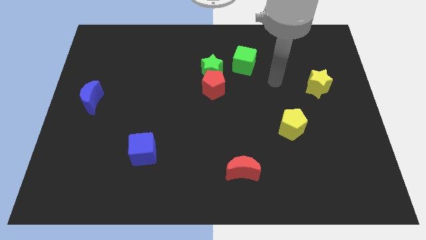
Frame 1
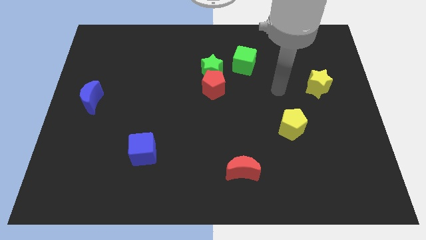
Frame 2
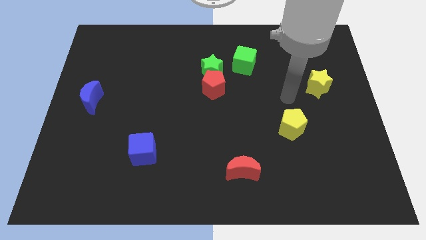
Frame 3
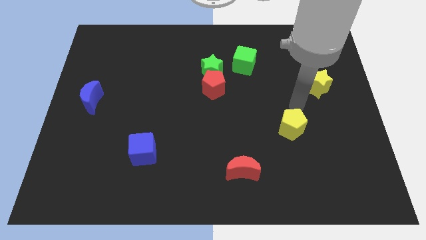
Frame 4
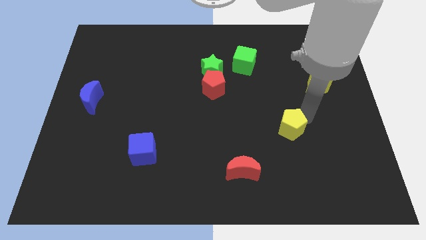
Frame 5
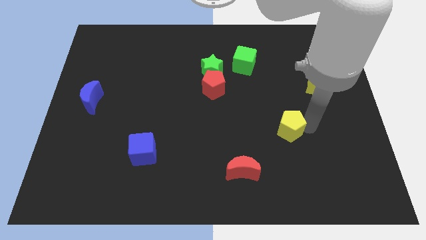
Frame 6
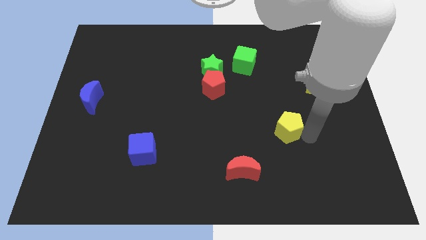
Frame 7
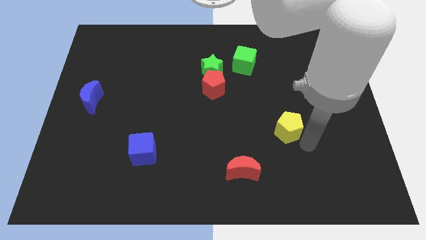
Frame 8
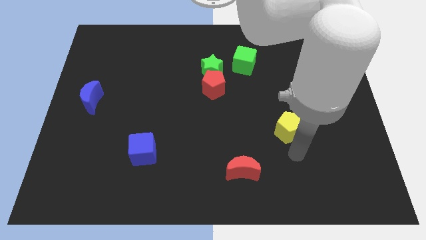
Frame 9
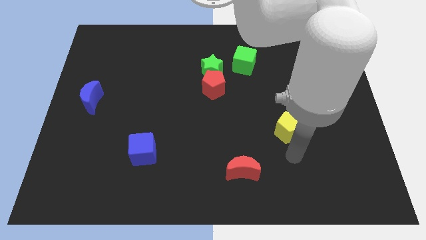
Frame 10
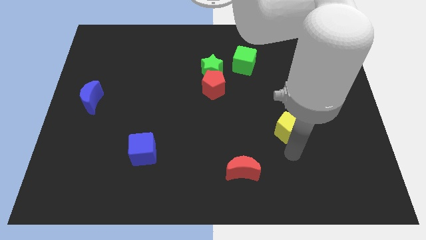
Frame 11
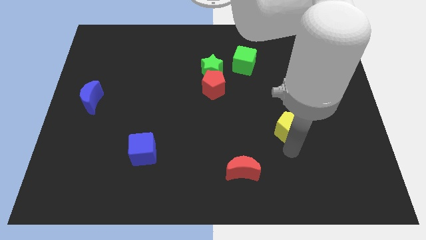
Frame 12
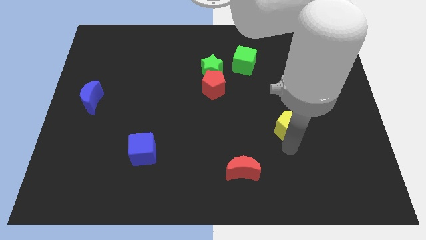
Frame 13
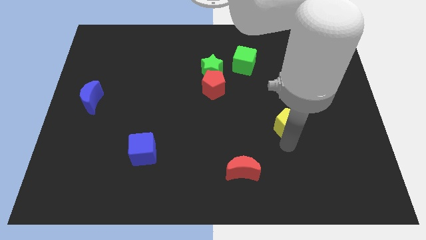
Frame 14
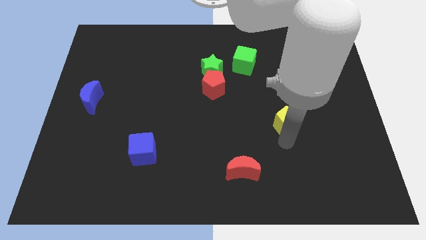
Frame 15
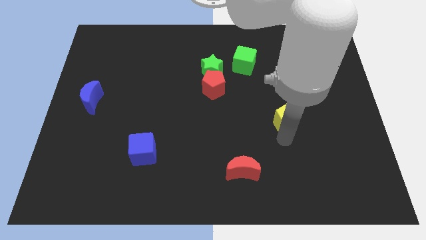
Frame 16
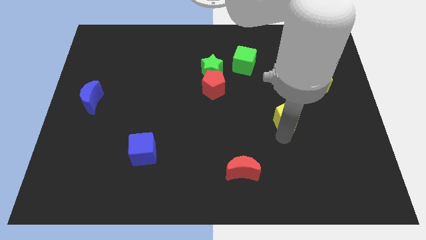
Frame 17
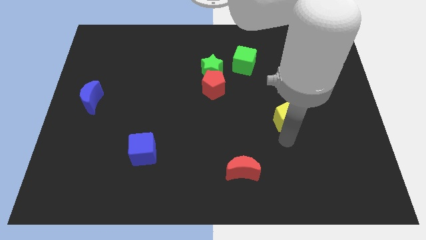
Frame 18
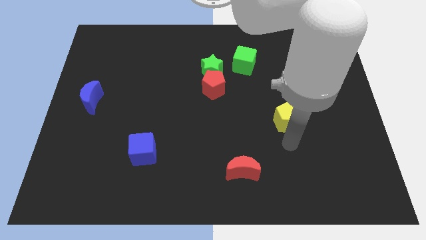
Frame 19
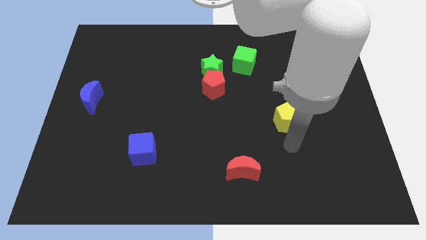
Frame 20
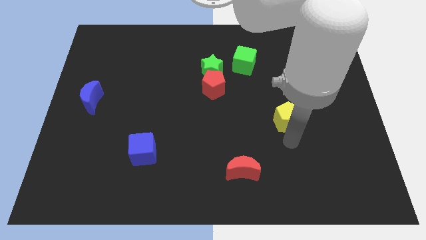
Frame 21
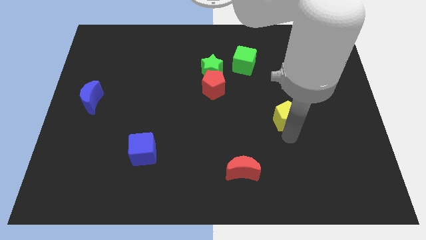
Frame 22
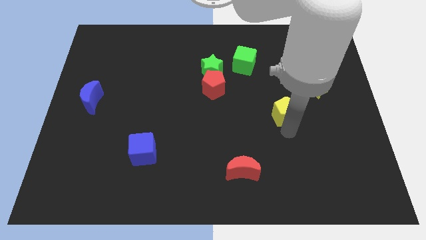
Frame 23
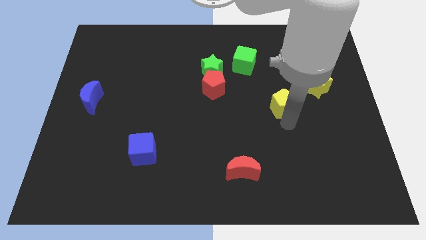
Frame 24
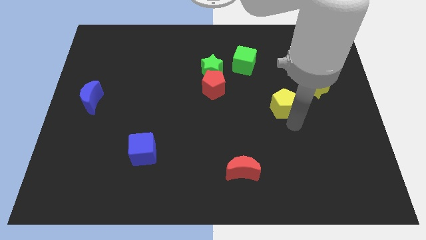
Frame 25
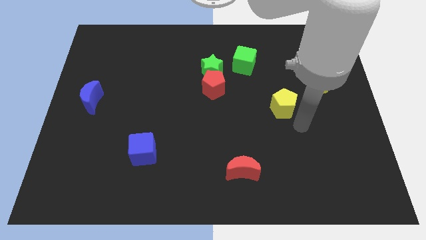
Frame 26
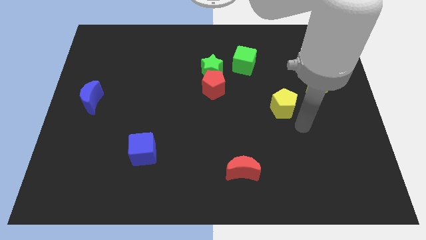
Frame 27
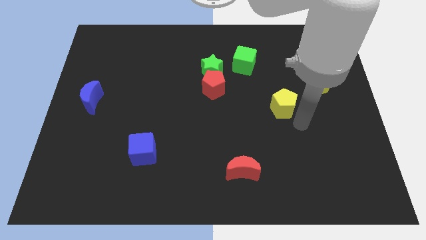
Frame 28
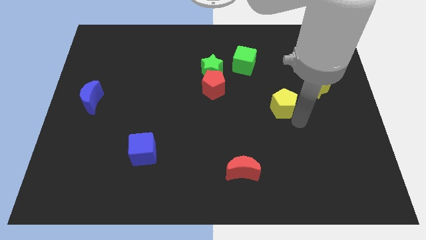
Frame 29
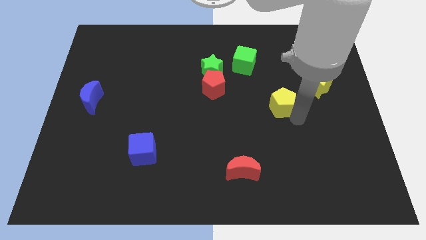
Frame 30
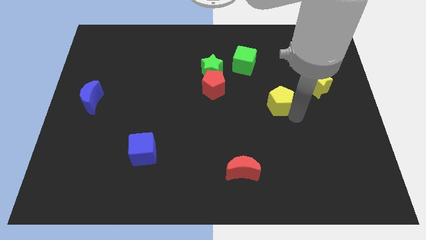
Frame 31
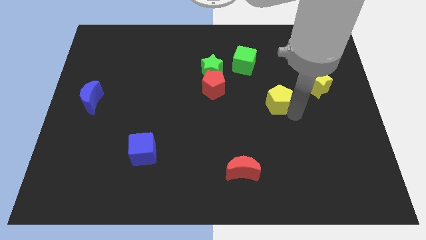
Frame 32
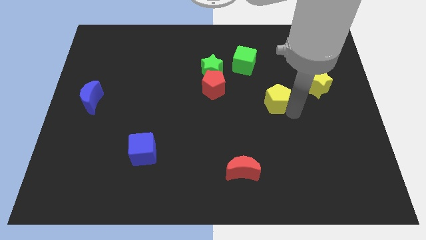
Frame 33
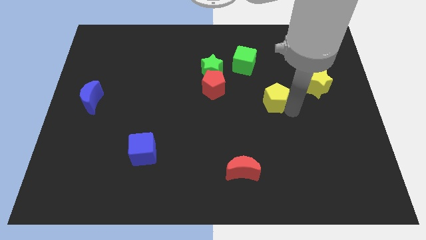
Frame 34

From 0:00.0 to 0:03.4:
move the yellow pentagon somewhat up and then left

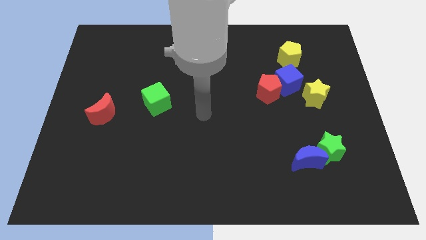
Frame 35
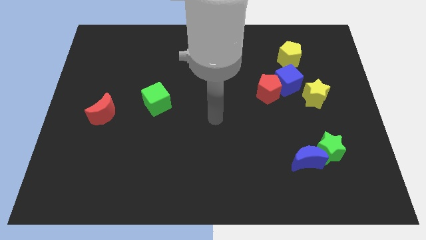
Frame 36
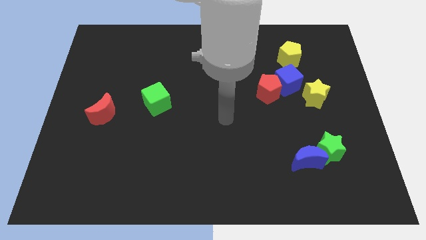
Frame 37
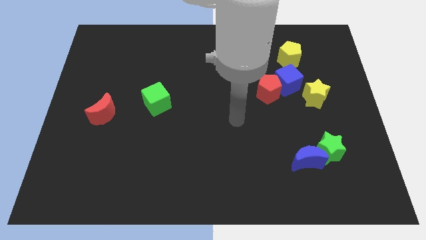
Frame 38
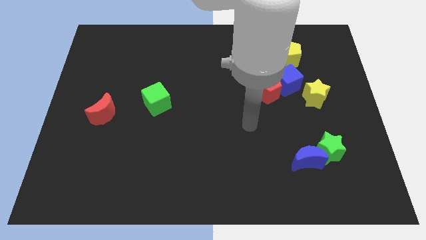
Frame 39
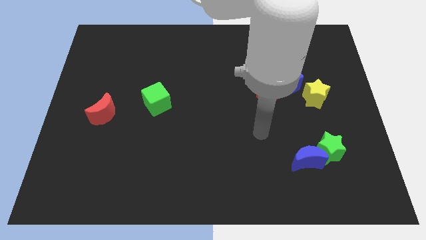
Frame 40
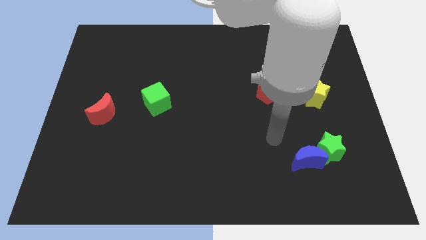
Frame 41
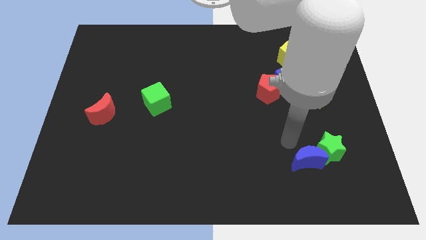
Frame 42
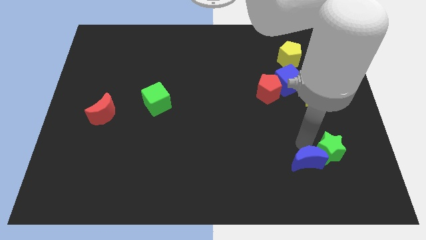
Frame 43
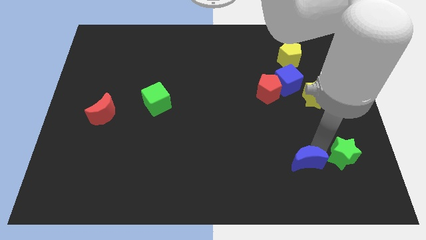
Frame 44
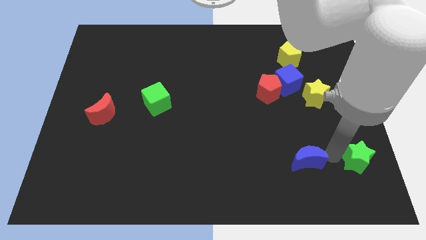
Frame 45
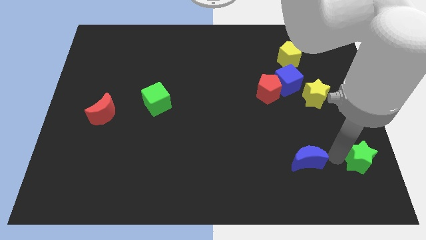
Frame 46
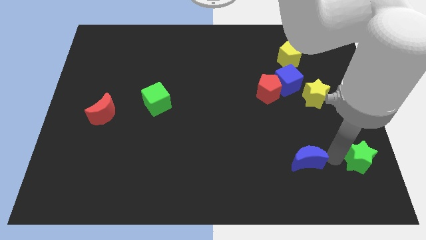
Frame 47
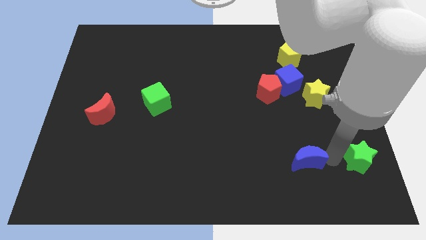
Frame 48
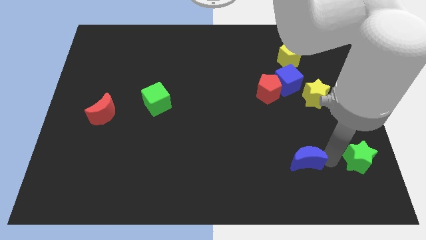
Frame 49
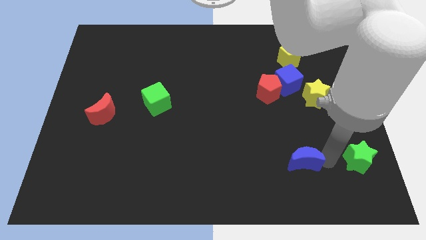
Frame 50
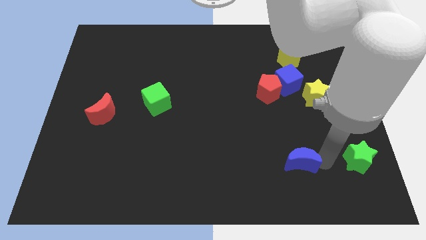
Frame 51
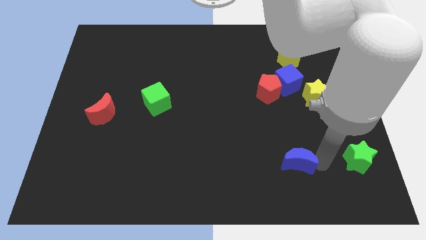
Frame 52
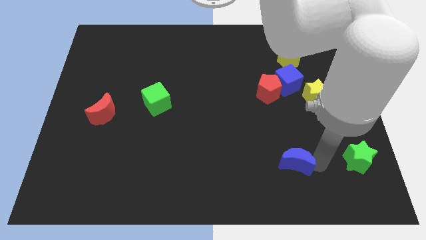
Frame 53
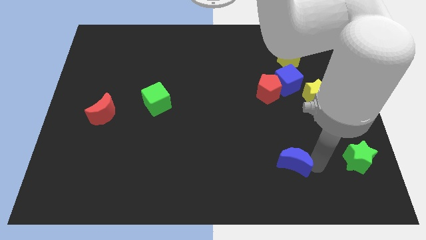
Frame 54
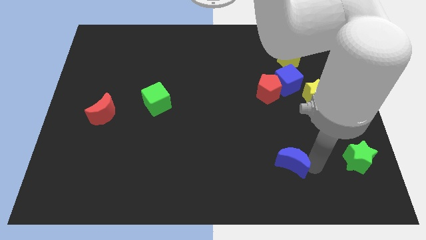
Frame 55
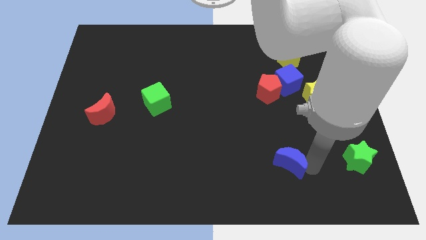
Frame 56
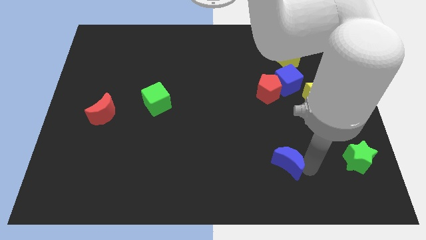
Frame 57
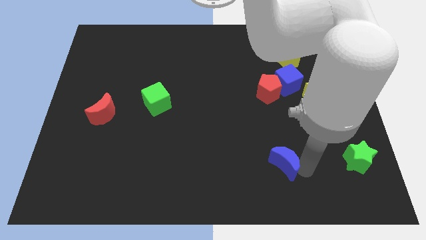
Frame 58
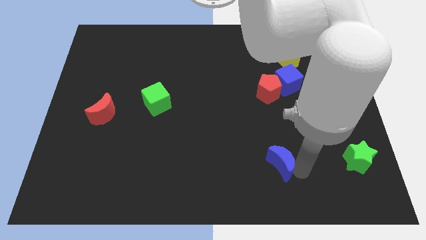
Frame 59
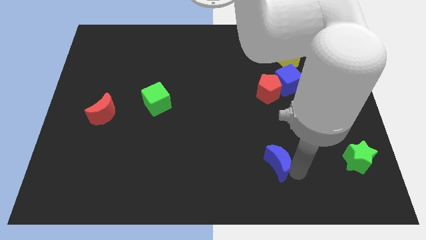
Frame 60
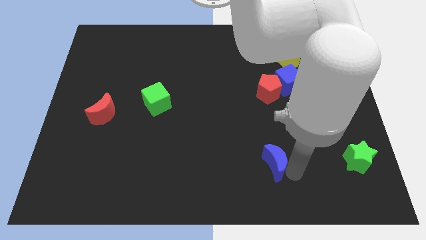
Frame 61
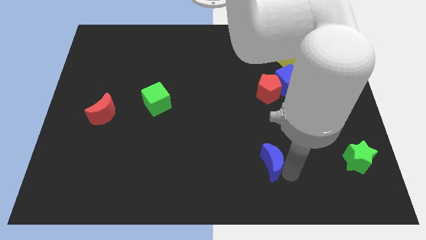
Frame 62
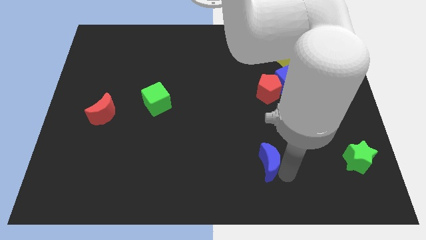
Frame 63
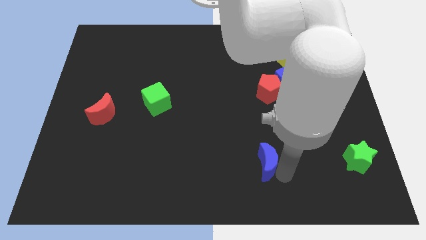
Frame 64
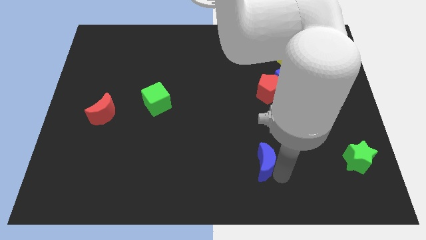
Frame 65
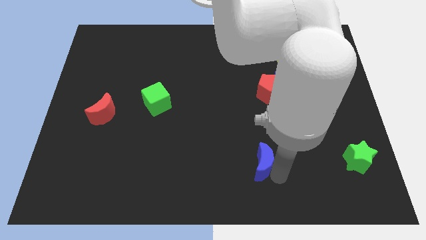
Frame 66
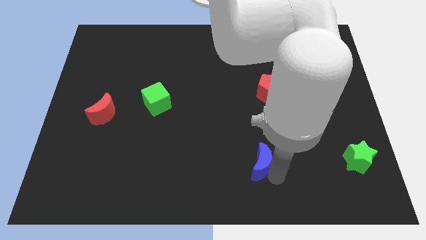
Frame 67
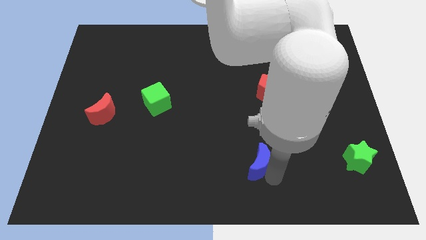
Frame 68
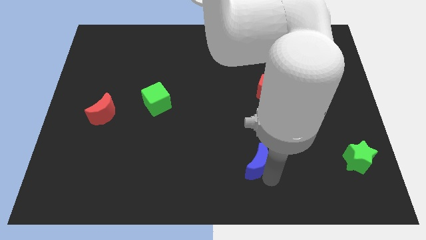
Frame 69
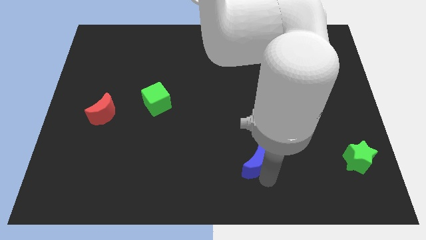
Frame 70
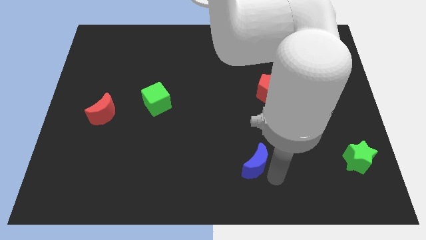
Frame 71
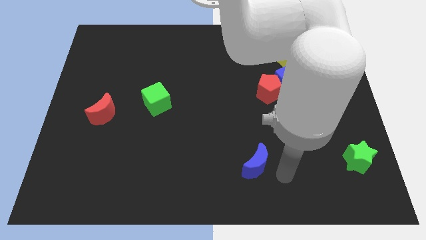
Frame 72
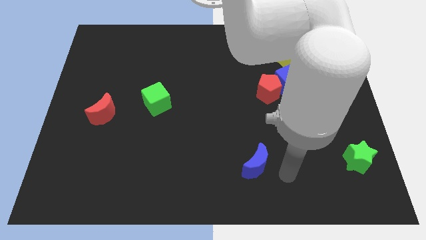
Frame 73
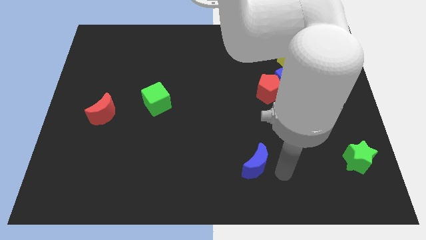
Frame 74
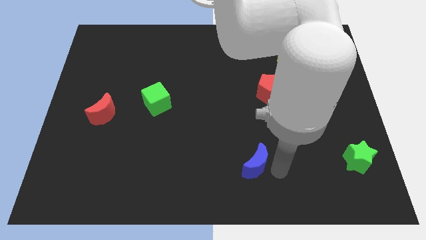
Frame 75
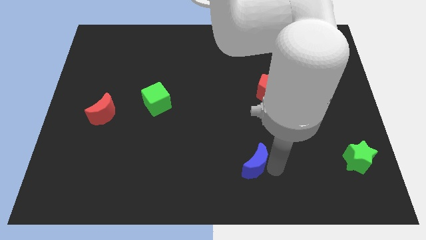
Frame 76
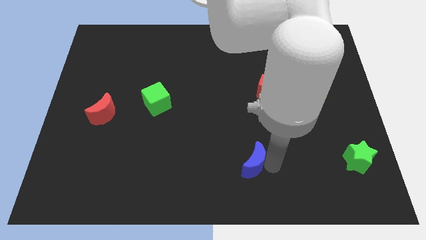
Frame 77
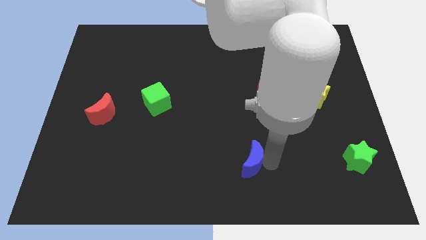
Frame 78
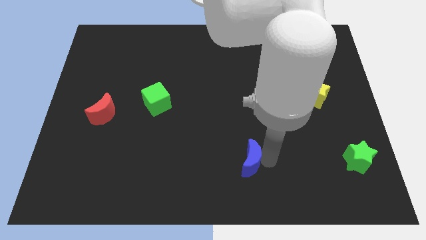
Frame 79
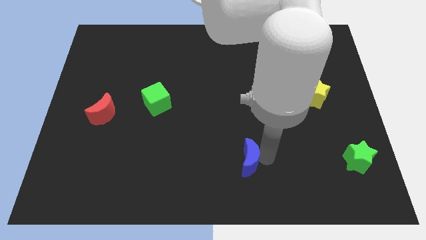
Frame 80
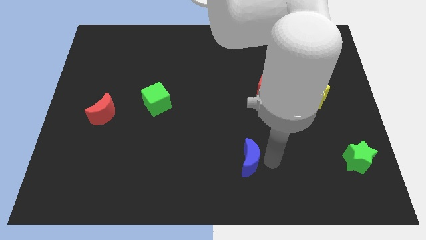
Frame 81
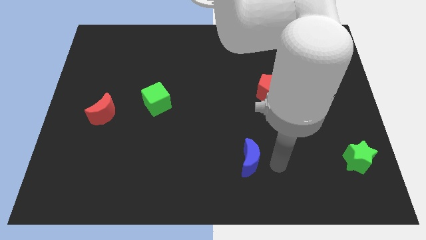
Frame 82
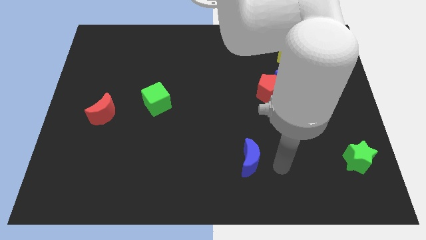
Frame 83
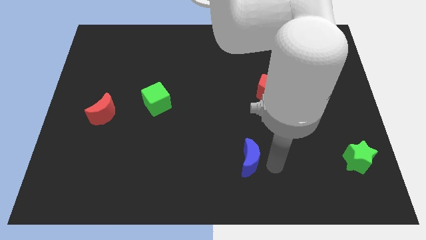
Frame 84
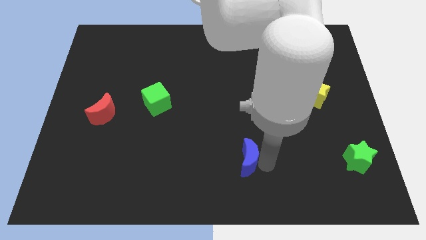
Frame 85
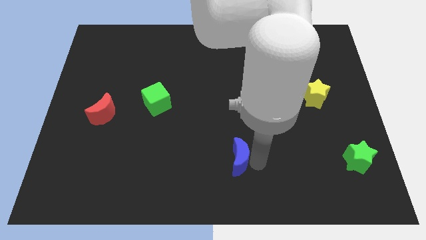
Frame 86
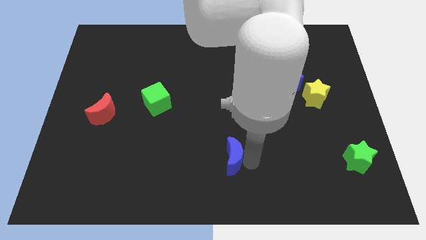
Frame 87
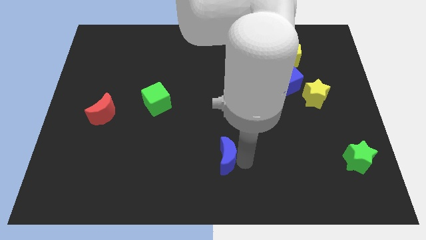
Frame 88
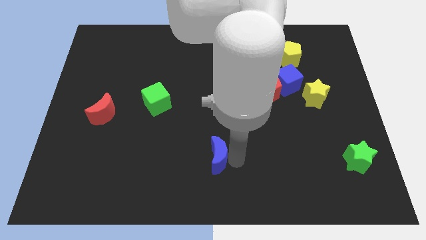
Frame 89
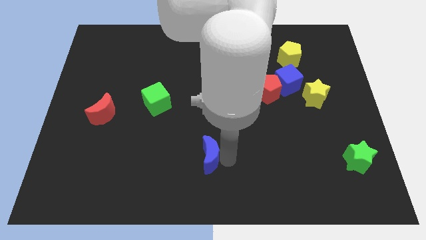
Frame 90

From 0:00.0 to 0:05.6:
push the blue moon to the left
